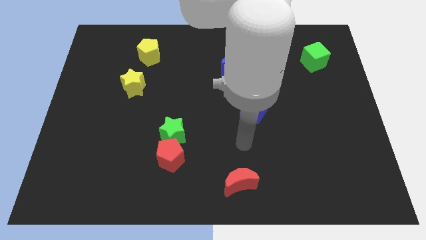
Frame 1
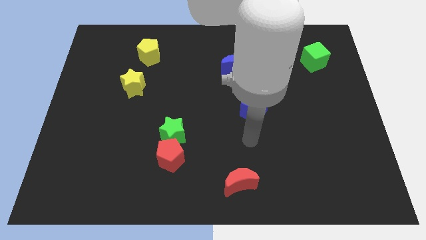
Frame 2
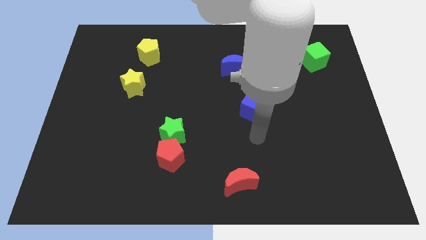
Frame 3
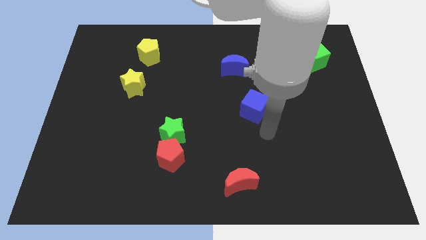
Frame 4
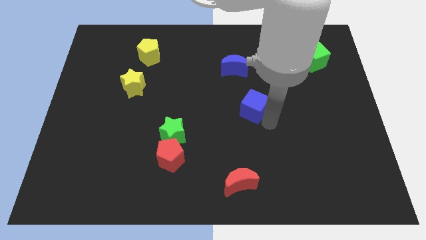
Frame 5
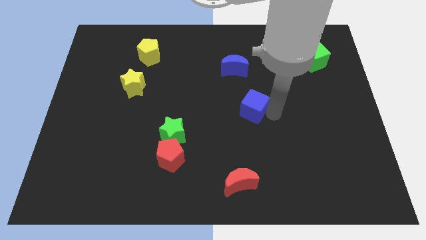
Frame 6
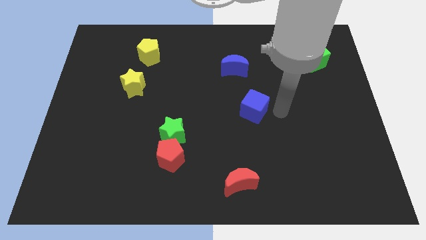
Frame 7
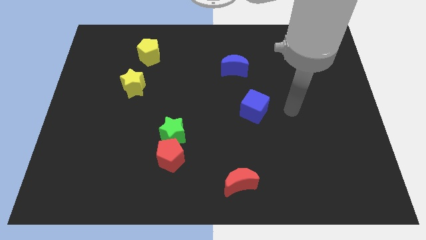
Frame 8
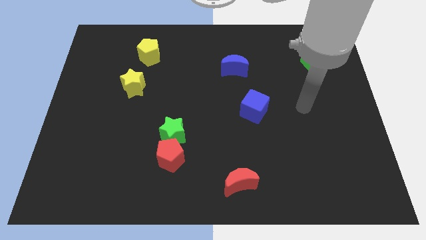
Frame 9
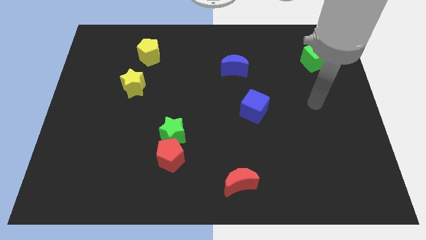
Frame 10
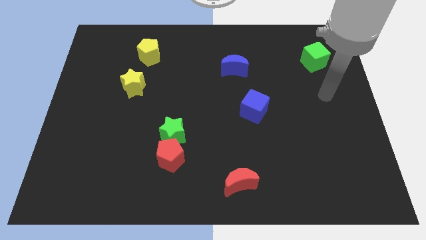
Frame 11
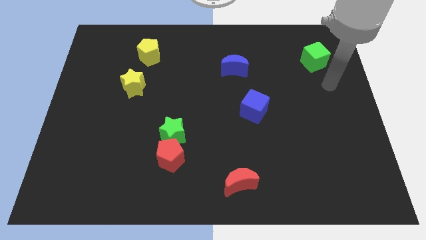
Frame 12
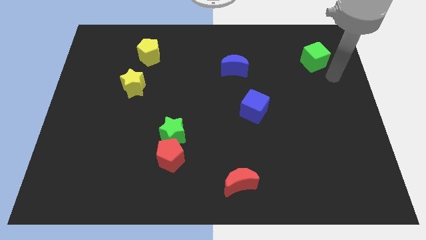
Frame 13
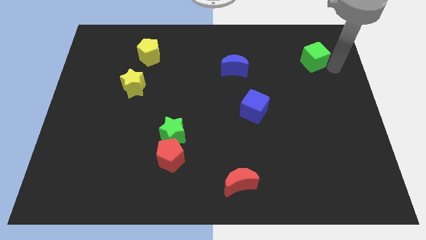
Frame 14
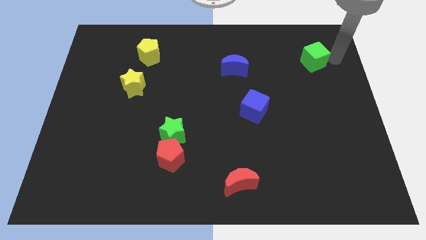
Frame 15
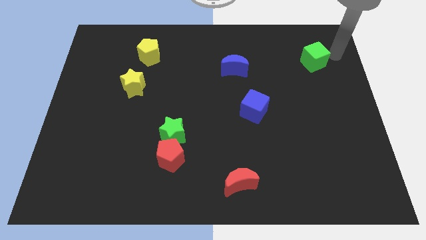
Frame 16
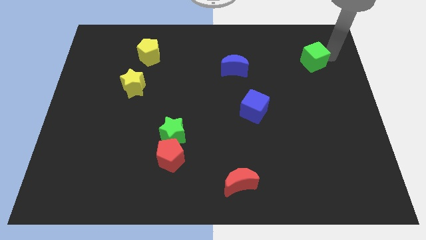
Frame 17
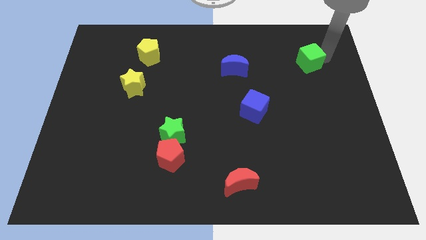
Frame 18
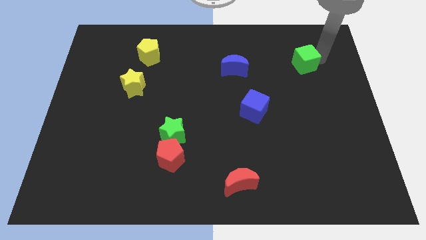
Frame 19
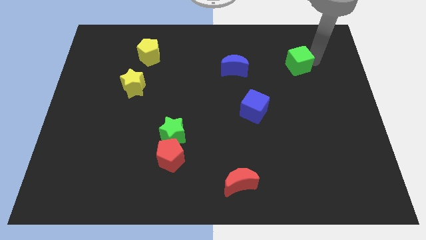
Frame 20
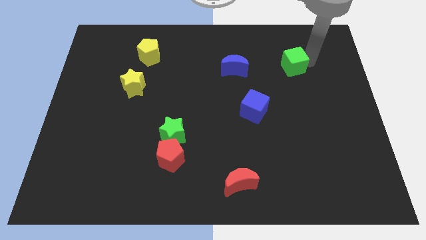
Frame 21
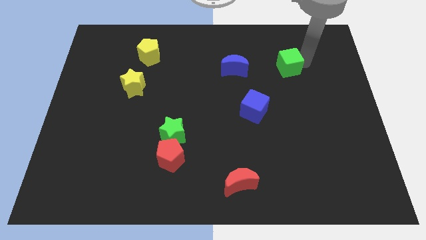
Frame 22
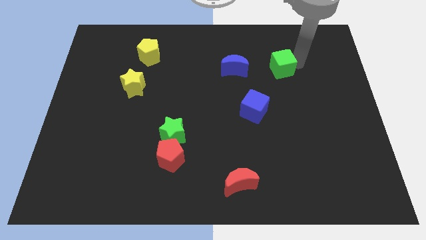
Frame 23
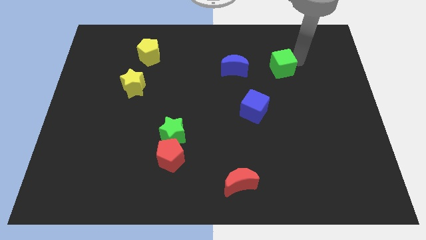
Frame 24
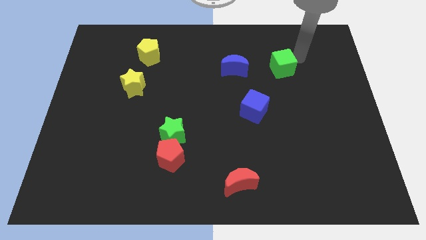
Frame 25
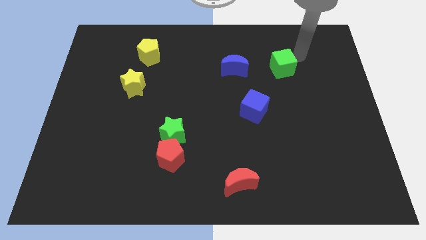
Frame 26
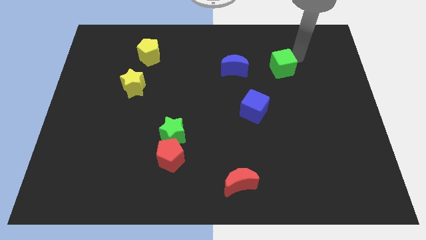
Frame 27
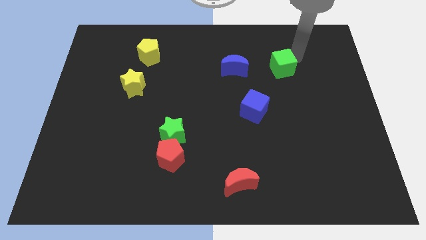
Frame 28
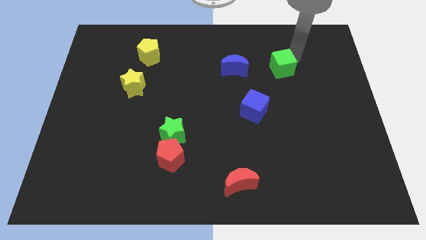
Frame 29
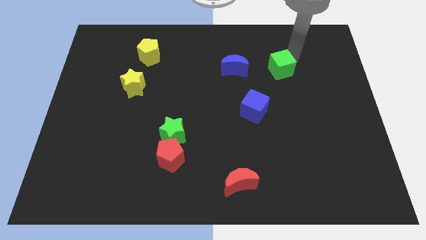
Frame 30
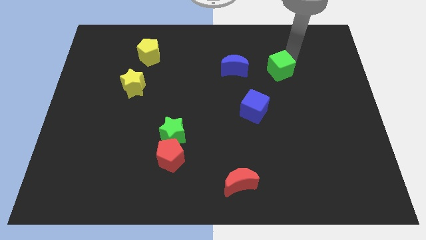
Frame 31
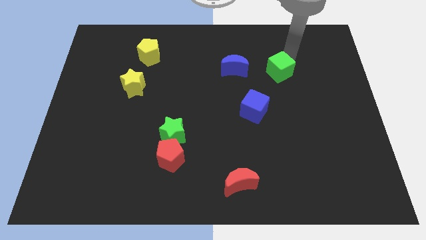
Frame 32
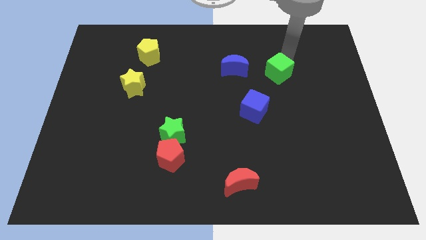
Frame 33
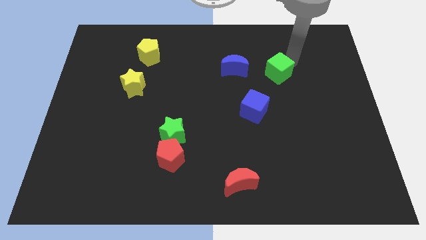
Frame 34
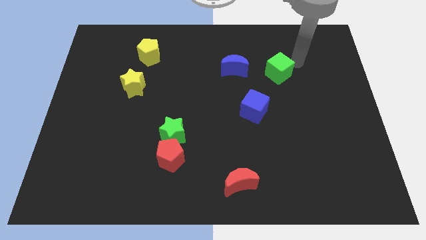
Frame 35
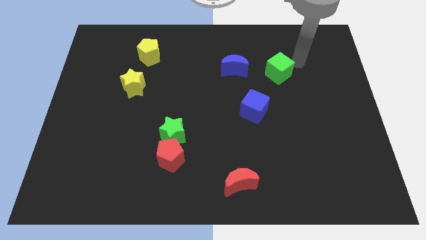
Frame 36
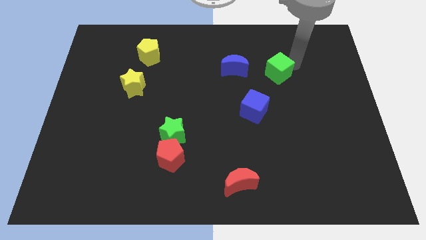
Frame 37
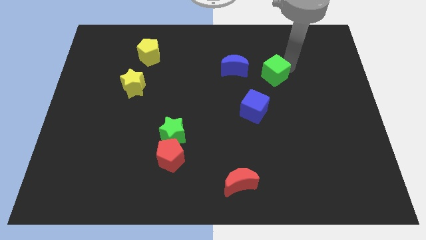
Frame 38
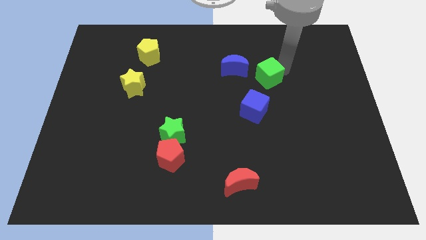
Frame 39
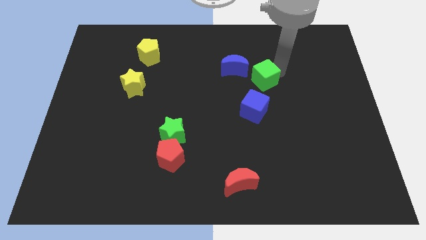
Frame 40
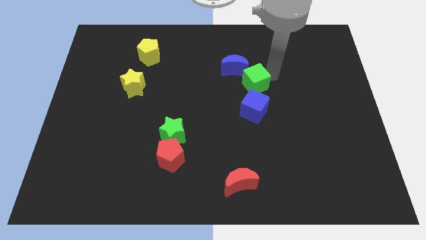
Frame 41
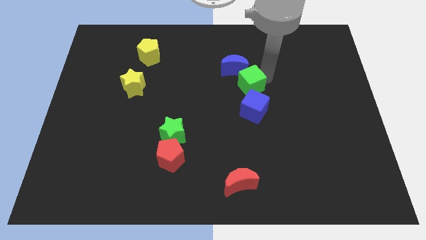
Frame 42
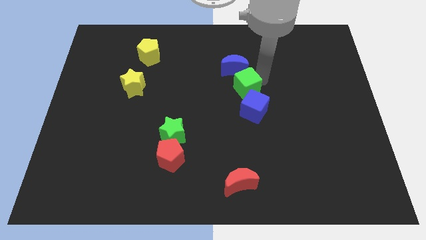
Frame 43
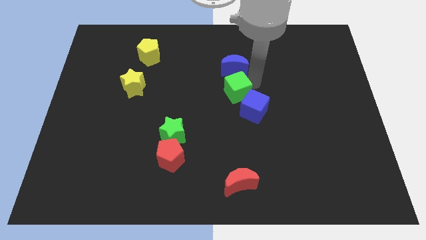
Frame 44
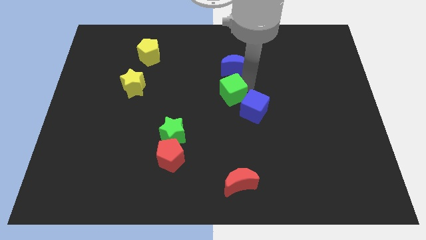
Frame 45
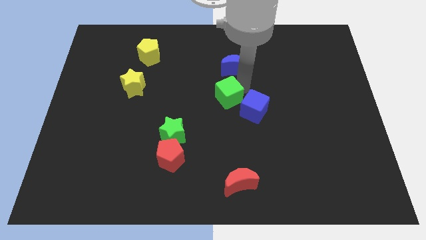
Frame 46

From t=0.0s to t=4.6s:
slide the green cube to the left of the blue cube

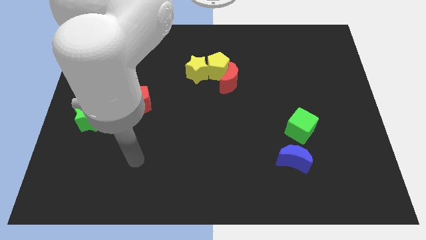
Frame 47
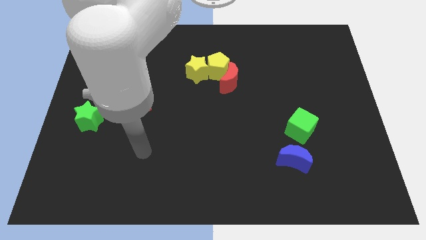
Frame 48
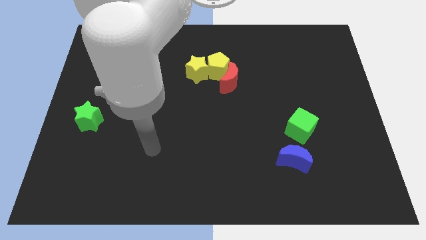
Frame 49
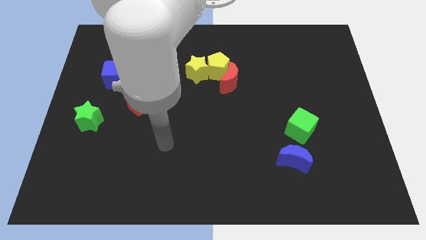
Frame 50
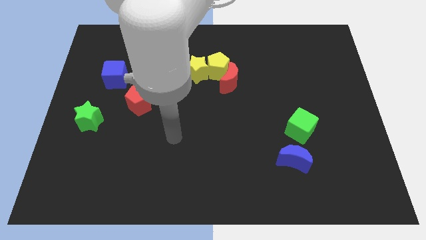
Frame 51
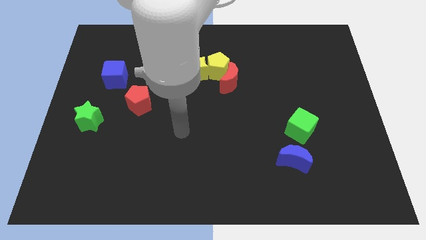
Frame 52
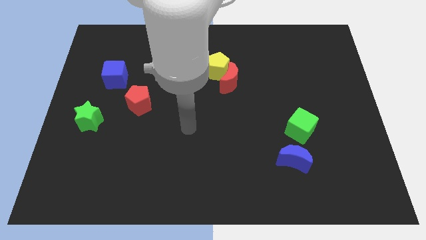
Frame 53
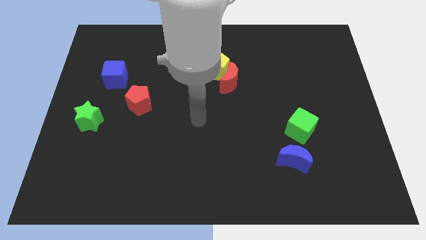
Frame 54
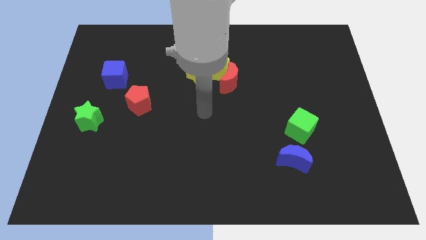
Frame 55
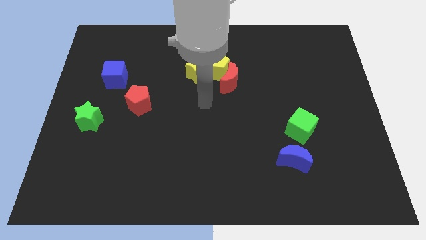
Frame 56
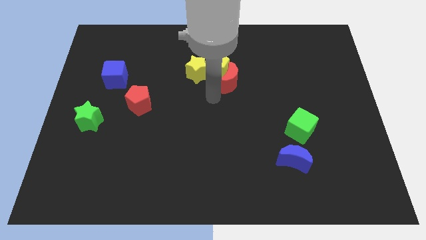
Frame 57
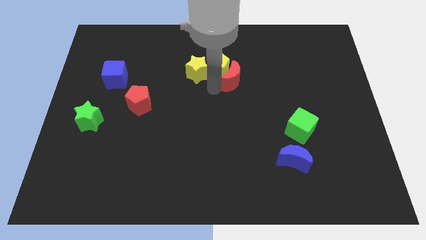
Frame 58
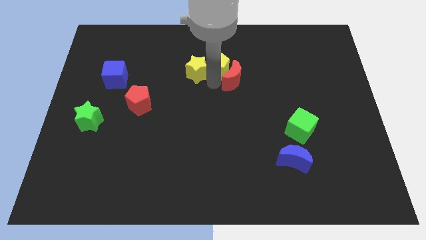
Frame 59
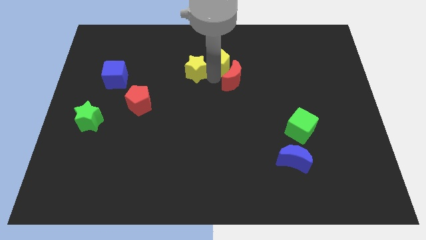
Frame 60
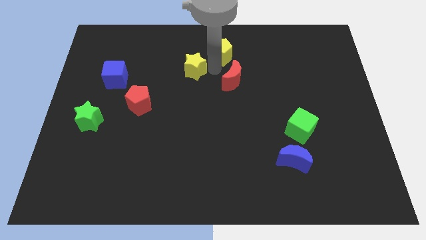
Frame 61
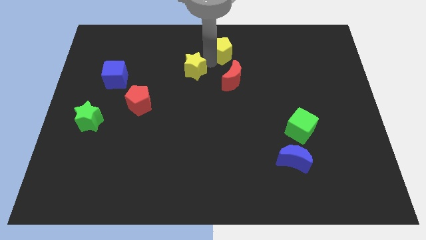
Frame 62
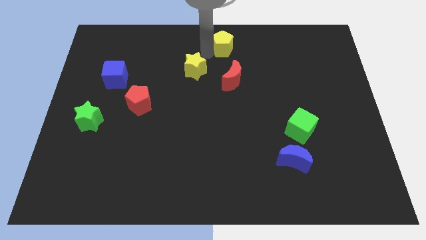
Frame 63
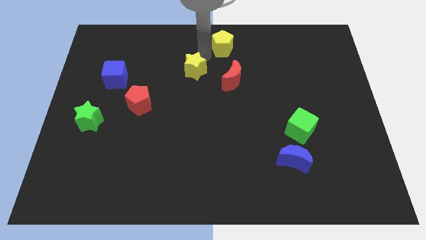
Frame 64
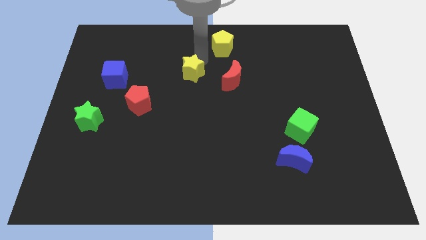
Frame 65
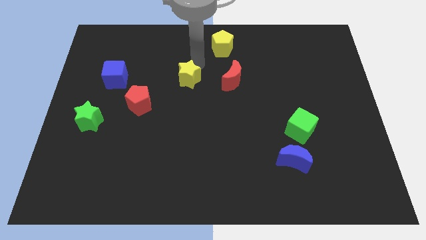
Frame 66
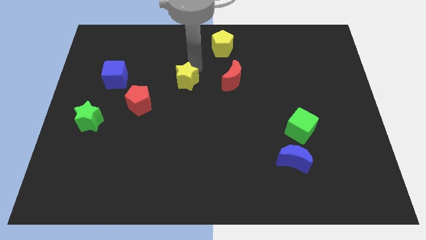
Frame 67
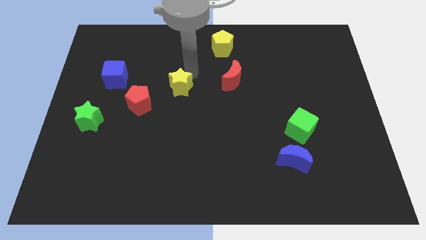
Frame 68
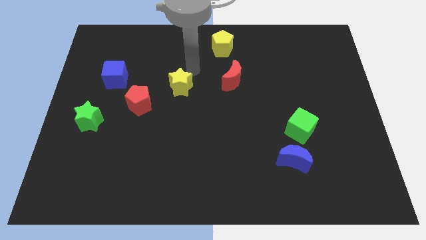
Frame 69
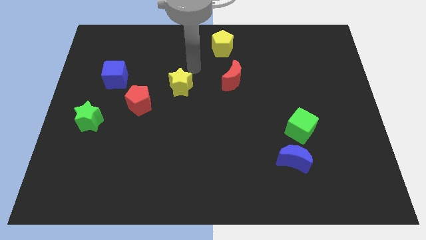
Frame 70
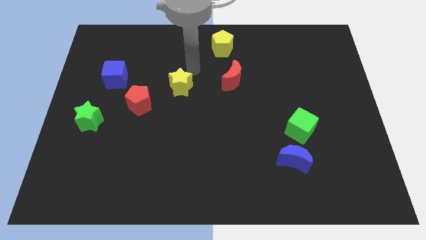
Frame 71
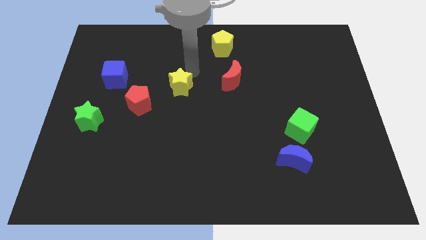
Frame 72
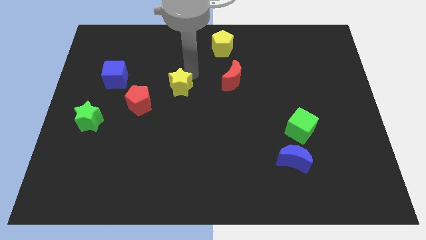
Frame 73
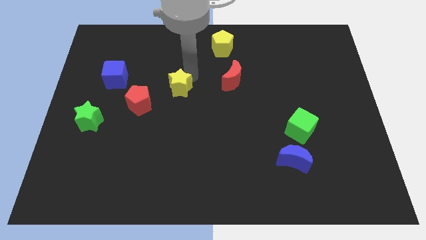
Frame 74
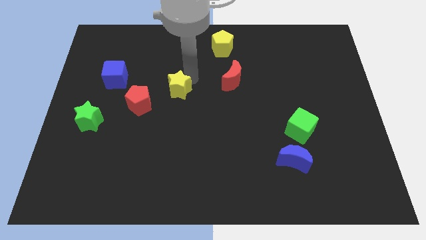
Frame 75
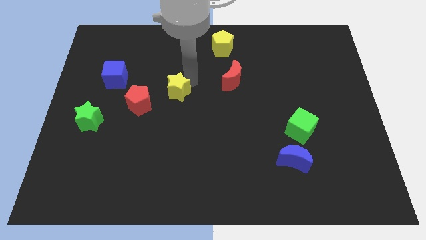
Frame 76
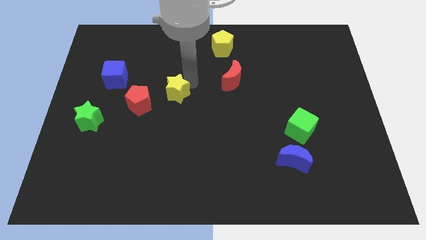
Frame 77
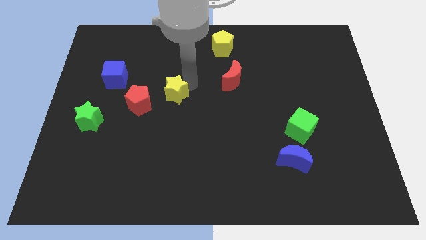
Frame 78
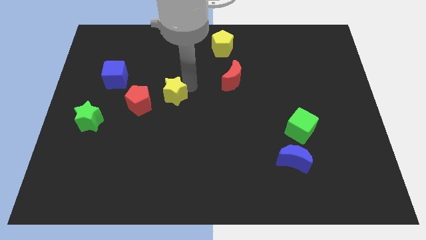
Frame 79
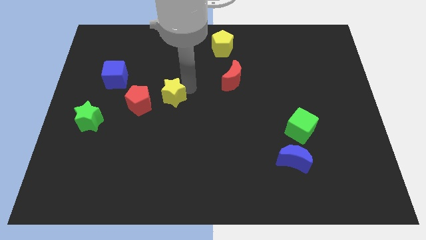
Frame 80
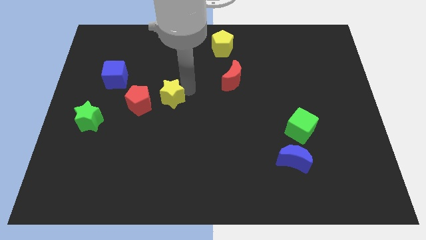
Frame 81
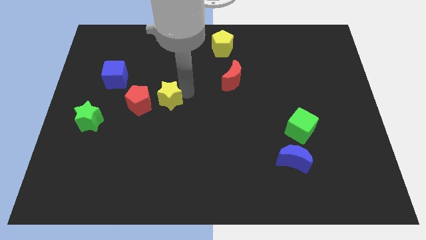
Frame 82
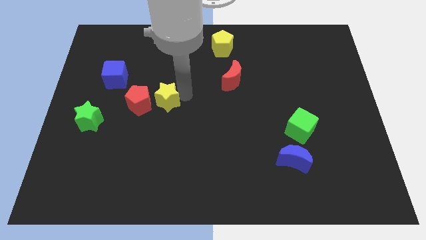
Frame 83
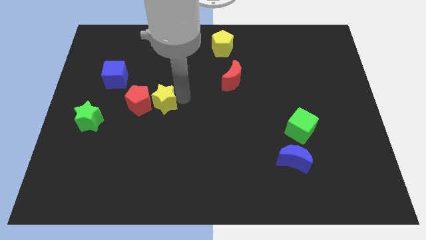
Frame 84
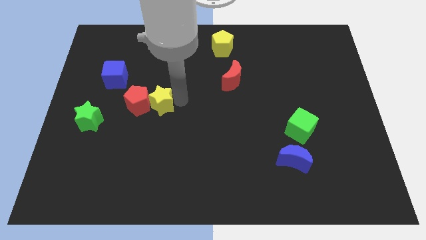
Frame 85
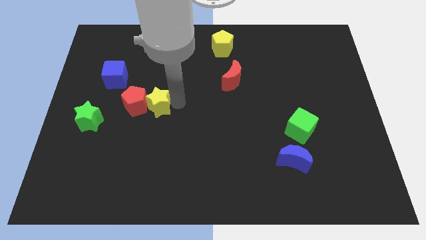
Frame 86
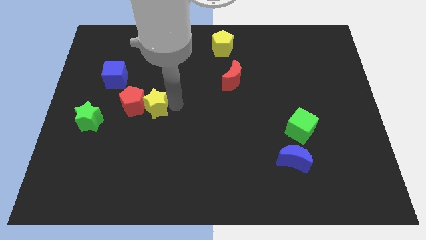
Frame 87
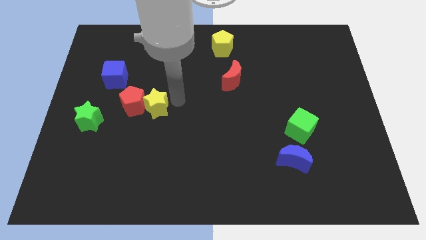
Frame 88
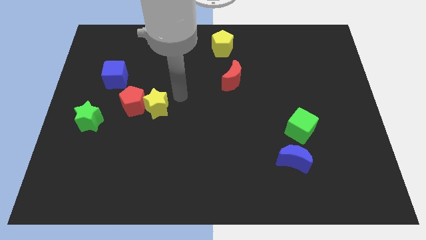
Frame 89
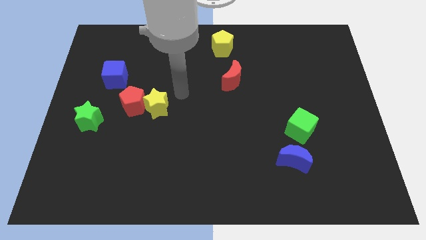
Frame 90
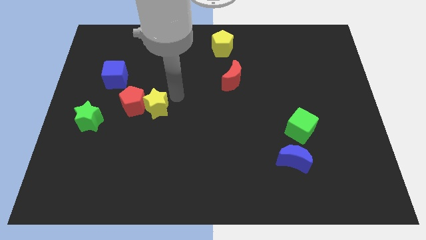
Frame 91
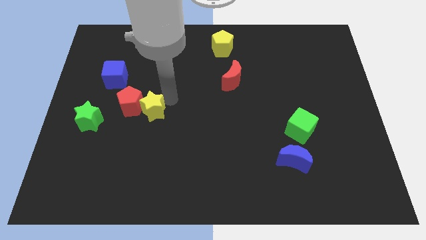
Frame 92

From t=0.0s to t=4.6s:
put the yellow star just right of the green star
